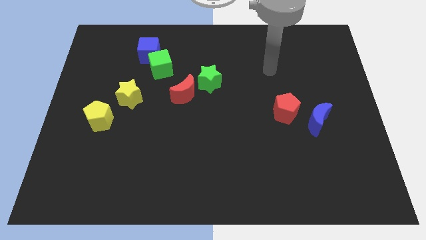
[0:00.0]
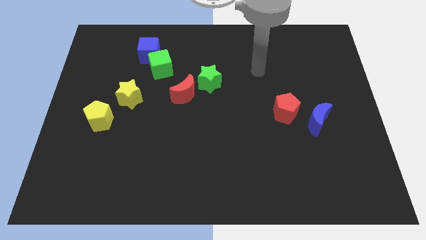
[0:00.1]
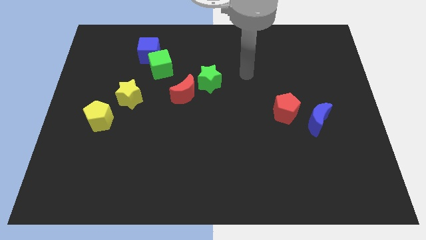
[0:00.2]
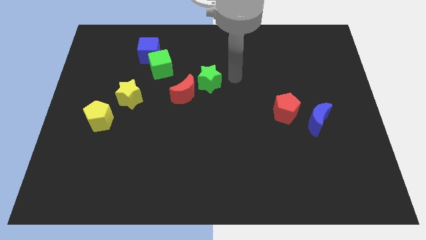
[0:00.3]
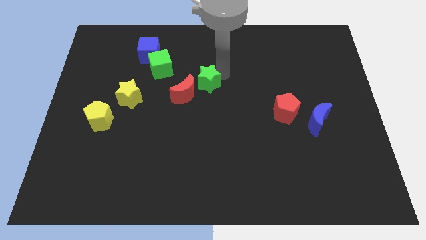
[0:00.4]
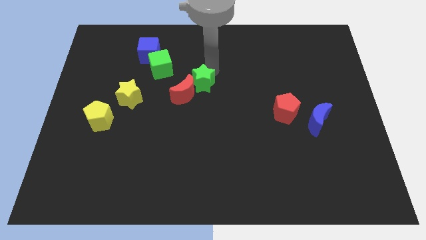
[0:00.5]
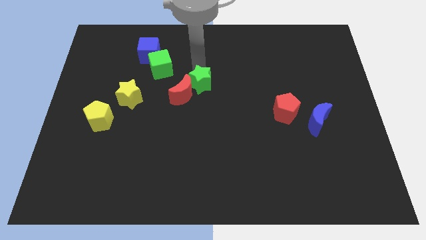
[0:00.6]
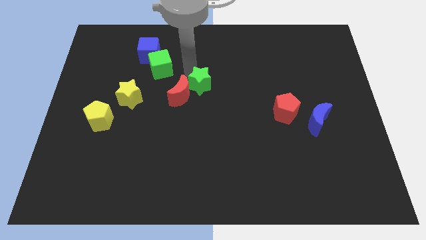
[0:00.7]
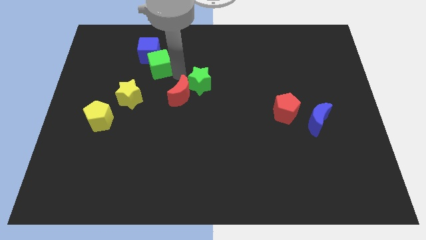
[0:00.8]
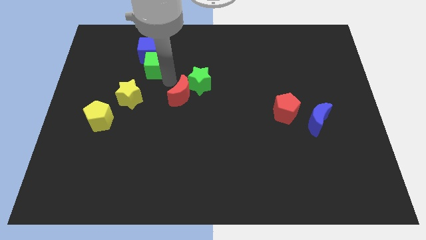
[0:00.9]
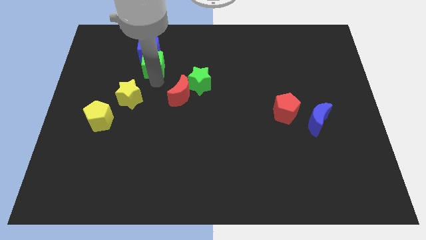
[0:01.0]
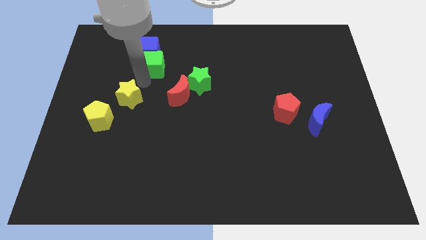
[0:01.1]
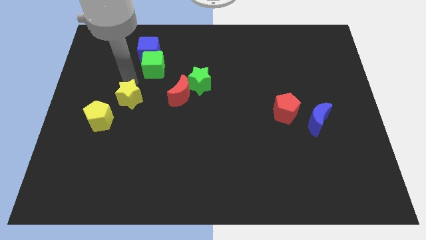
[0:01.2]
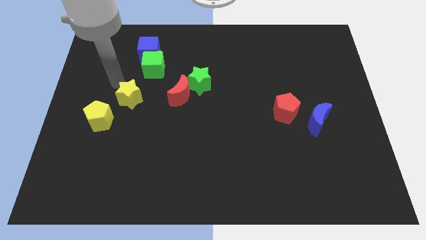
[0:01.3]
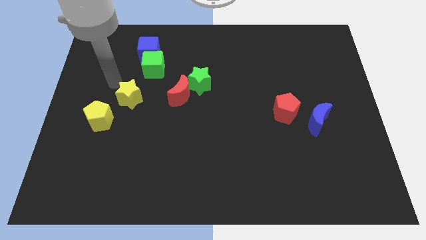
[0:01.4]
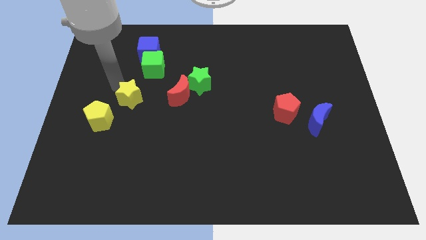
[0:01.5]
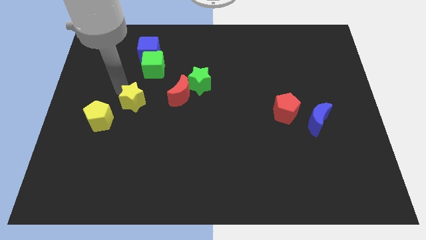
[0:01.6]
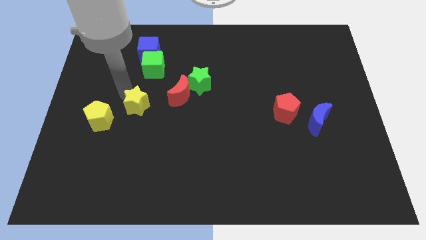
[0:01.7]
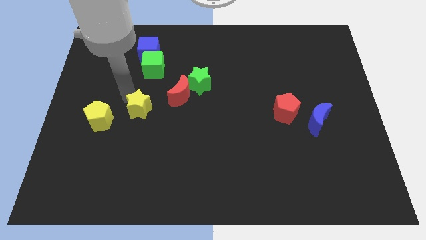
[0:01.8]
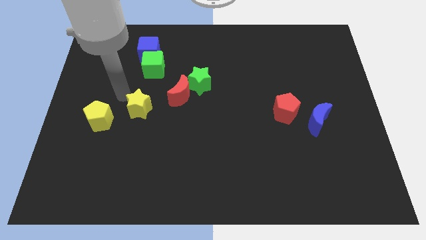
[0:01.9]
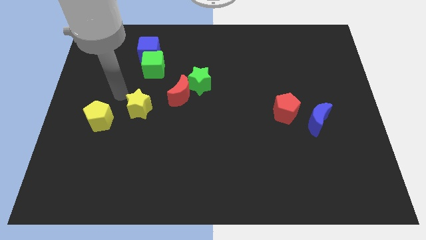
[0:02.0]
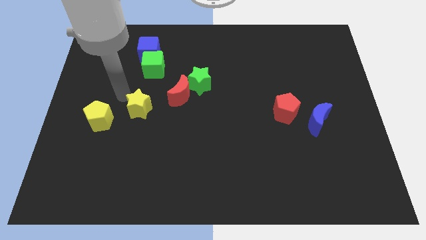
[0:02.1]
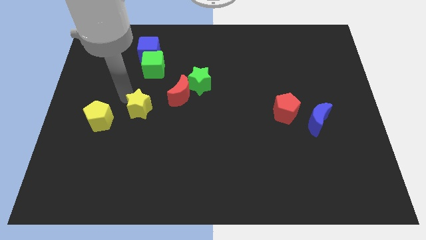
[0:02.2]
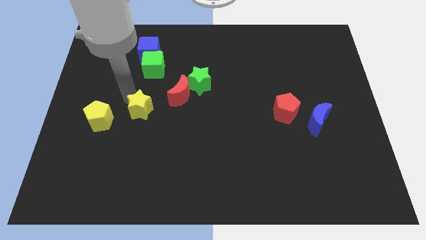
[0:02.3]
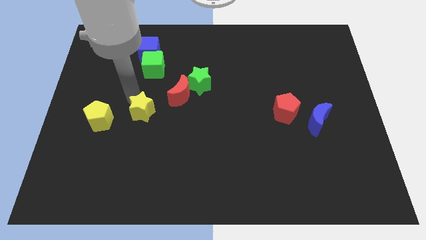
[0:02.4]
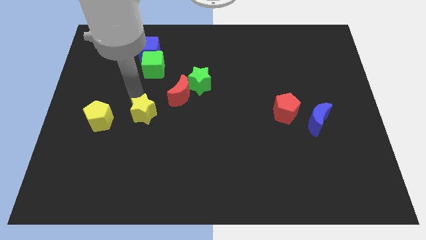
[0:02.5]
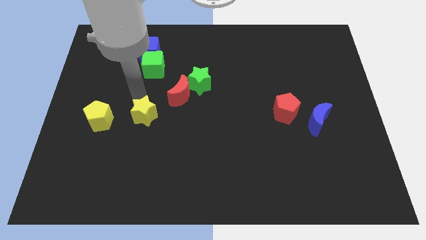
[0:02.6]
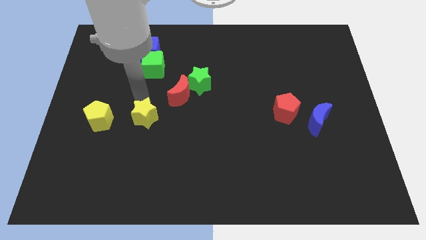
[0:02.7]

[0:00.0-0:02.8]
move the yellow star downwards and to the right diagonally a little bit

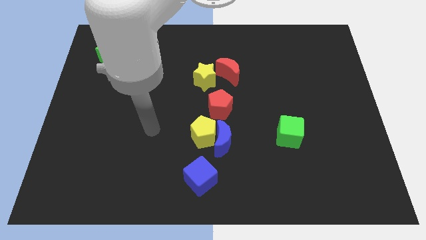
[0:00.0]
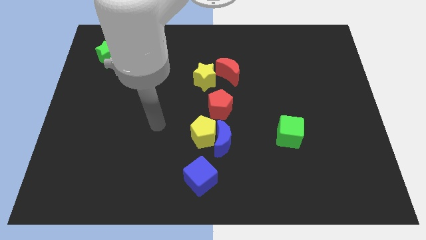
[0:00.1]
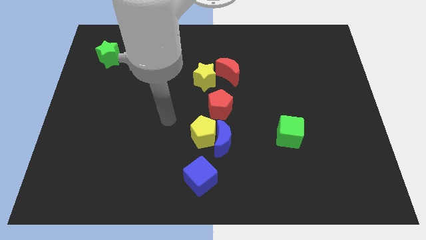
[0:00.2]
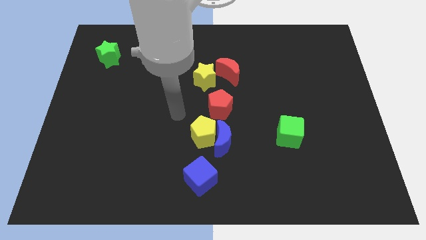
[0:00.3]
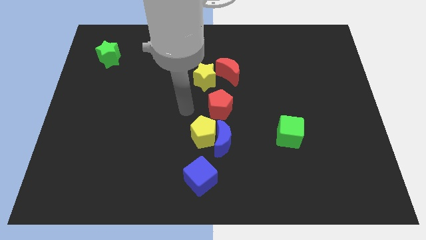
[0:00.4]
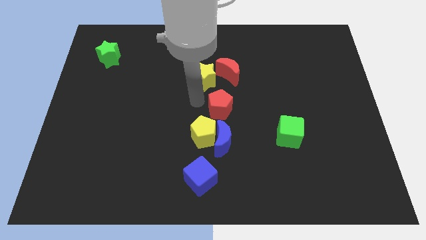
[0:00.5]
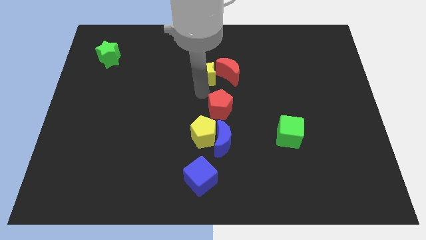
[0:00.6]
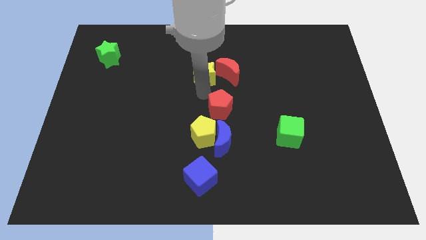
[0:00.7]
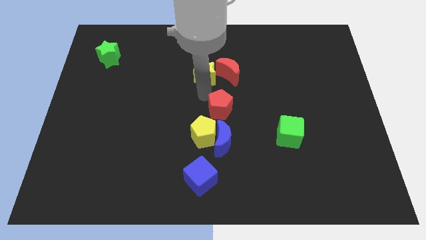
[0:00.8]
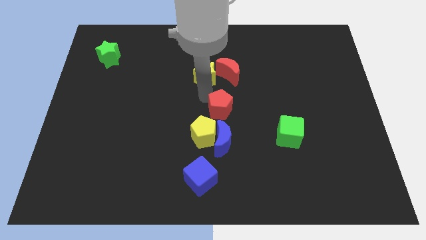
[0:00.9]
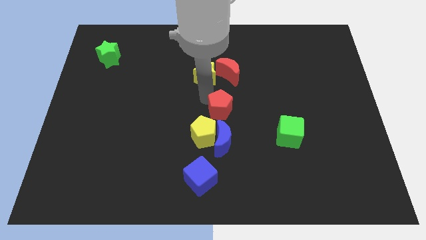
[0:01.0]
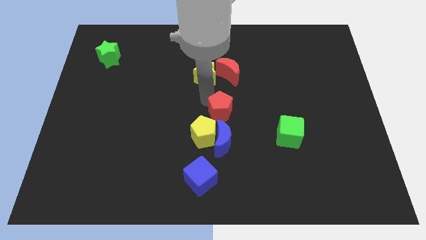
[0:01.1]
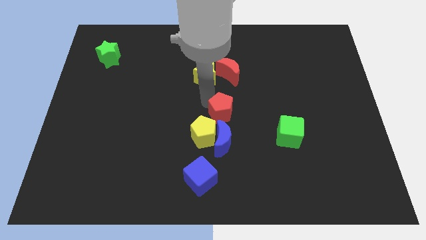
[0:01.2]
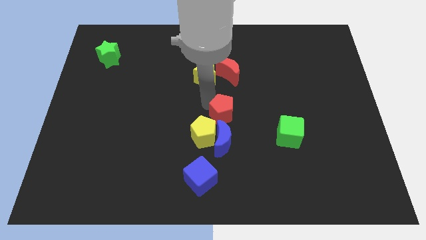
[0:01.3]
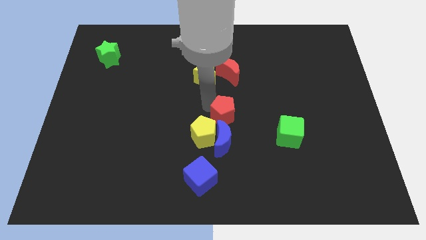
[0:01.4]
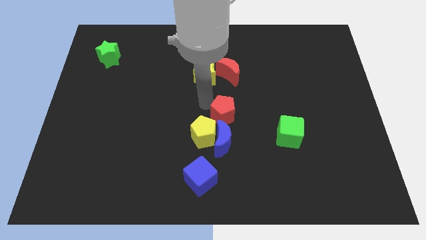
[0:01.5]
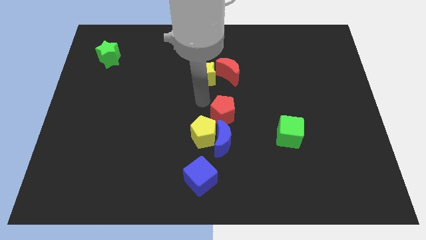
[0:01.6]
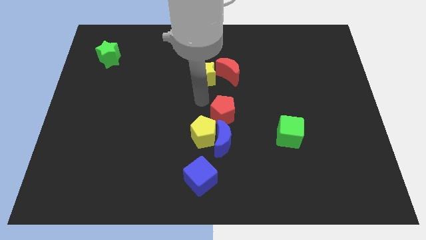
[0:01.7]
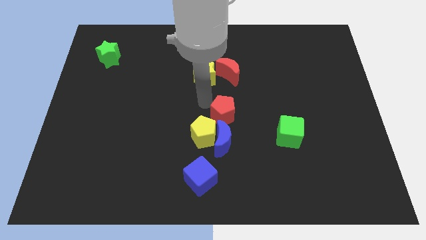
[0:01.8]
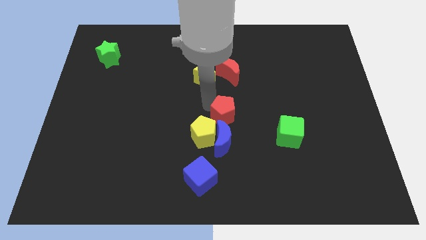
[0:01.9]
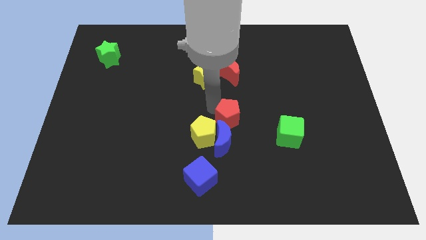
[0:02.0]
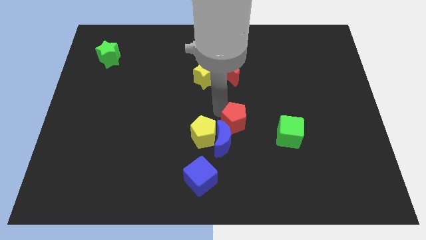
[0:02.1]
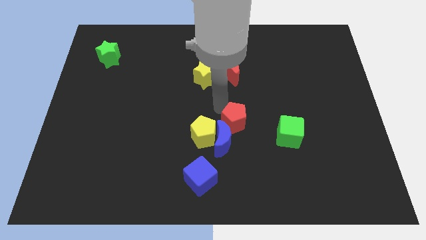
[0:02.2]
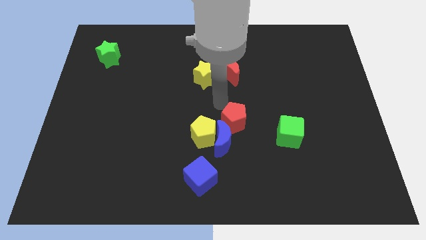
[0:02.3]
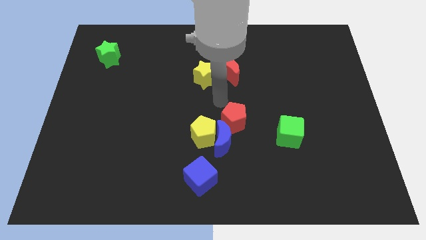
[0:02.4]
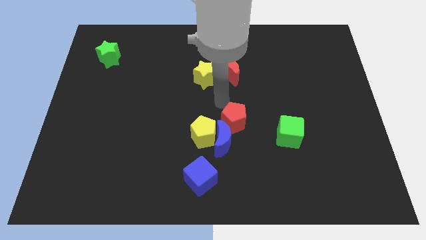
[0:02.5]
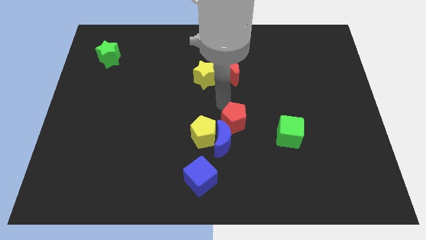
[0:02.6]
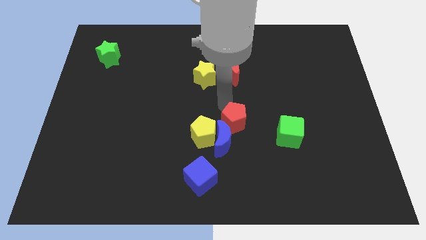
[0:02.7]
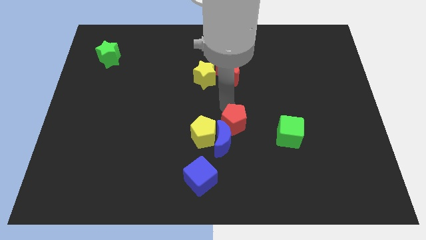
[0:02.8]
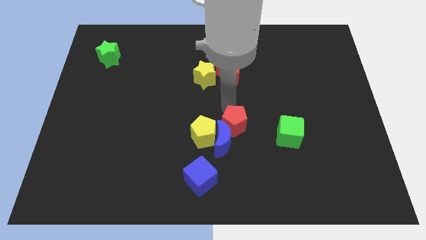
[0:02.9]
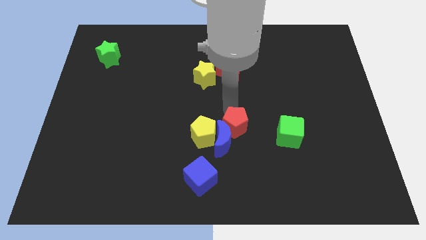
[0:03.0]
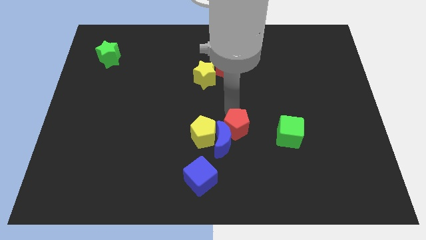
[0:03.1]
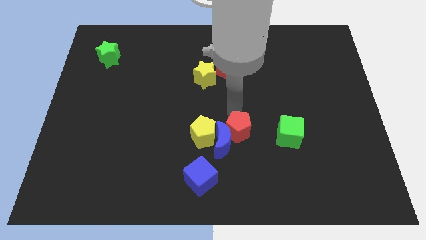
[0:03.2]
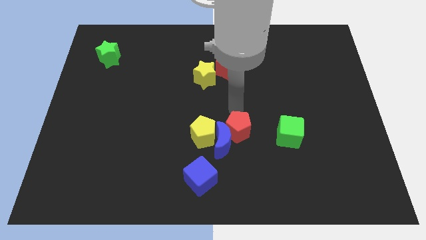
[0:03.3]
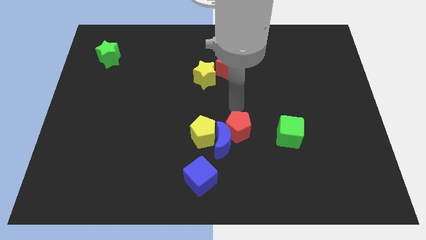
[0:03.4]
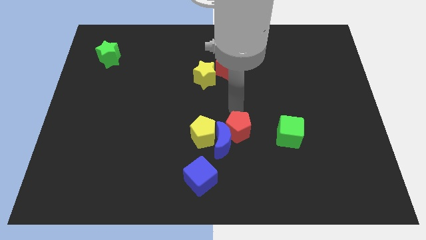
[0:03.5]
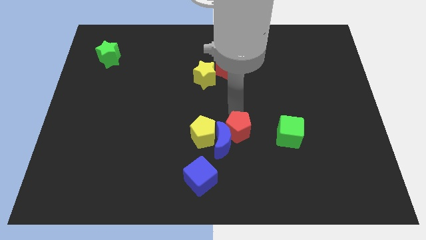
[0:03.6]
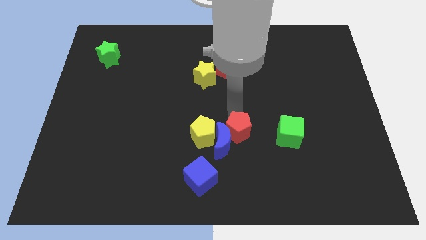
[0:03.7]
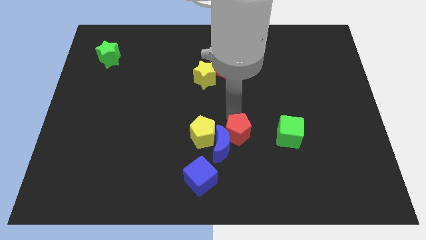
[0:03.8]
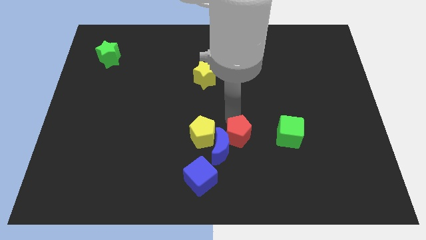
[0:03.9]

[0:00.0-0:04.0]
move the red pentagon downwards somewhat

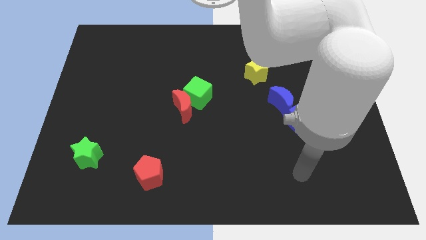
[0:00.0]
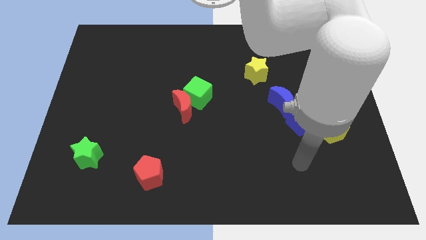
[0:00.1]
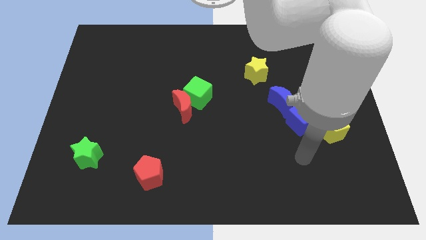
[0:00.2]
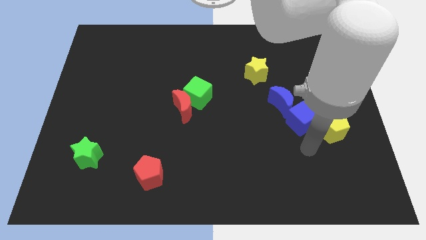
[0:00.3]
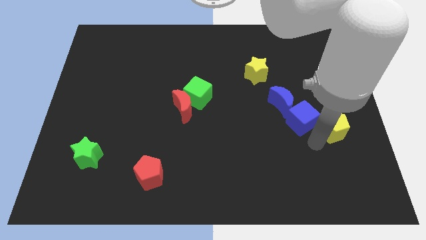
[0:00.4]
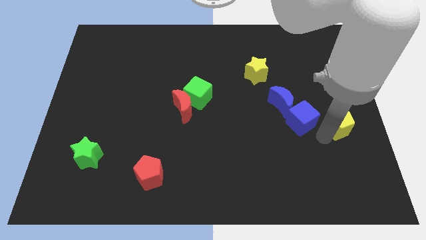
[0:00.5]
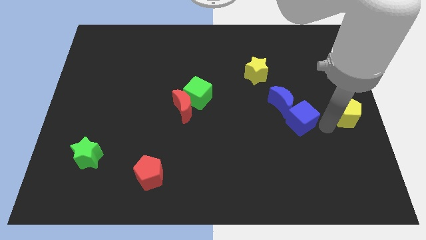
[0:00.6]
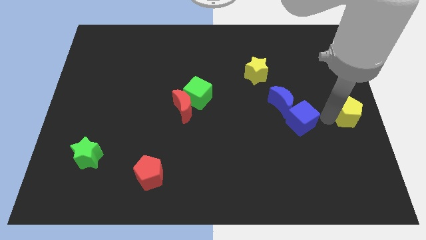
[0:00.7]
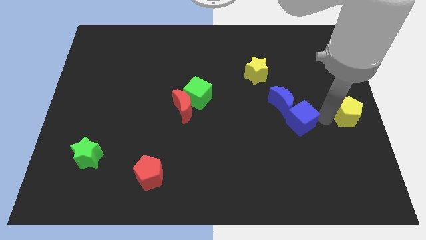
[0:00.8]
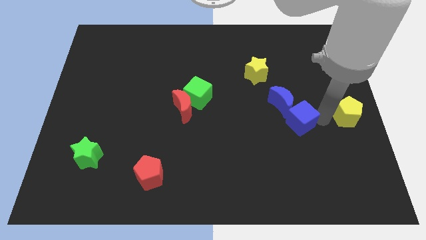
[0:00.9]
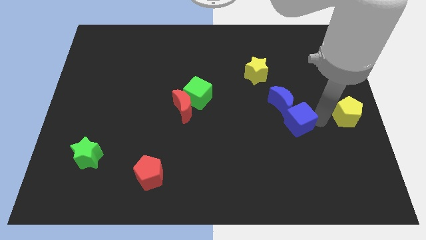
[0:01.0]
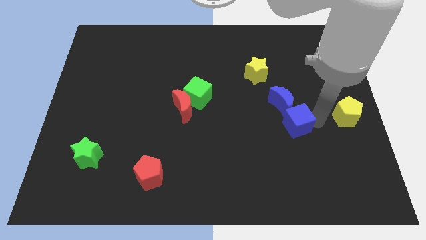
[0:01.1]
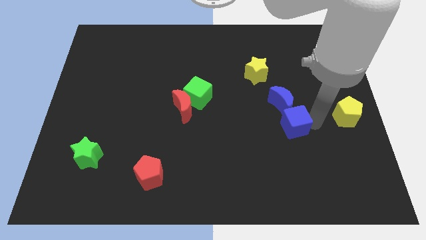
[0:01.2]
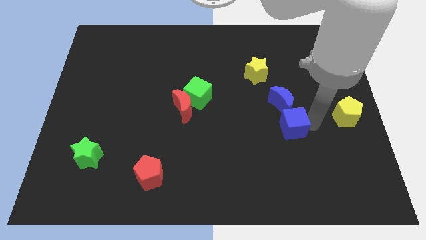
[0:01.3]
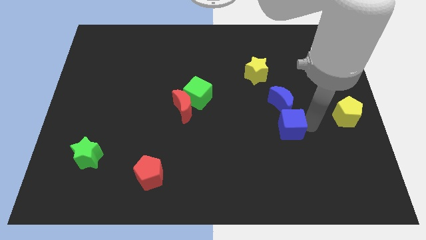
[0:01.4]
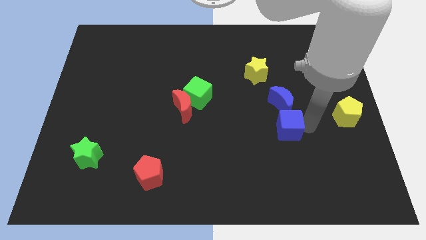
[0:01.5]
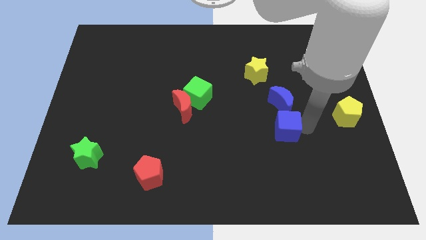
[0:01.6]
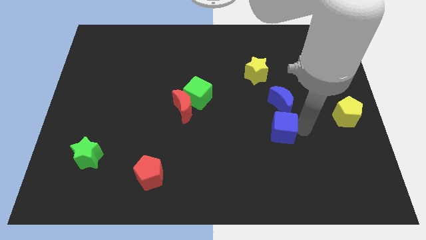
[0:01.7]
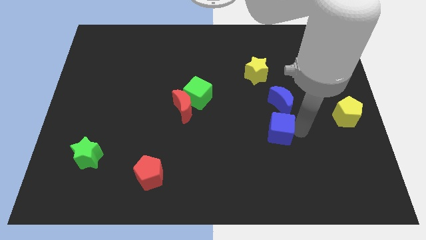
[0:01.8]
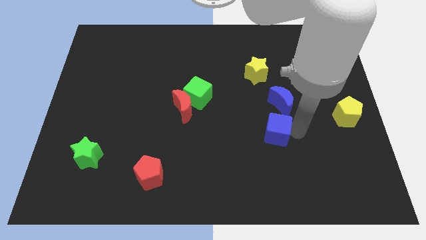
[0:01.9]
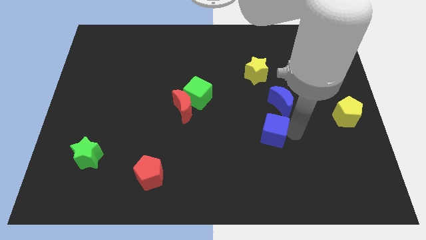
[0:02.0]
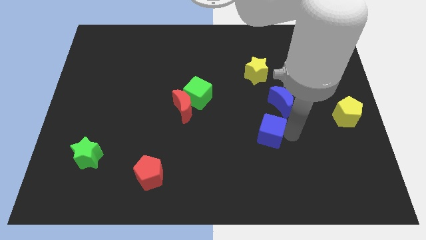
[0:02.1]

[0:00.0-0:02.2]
move the blue cube to the left slightly
